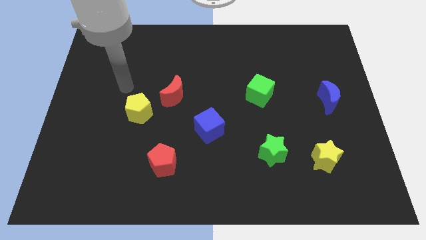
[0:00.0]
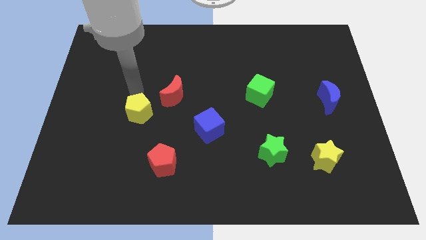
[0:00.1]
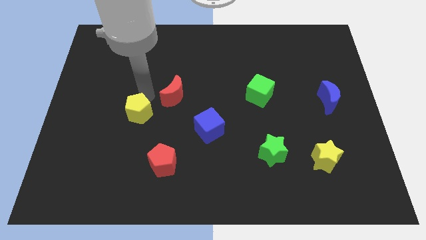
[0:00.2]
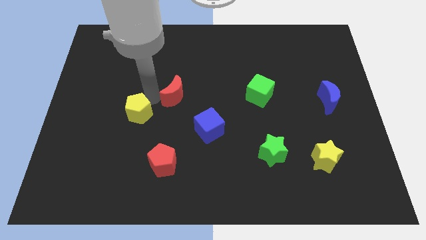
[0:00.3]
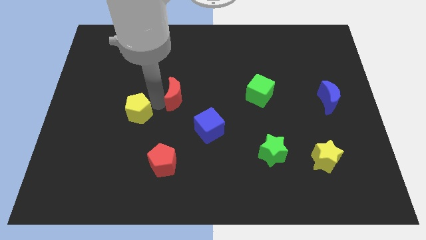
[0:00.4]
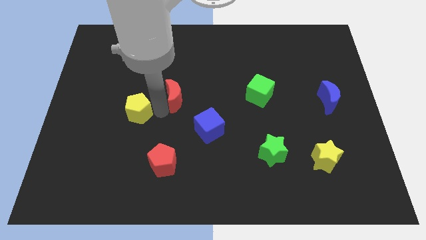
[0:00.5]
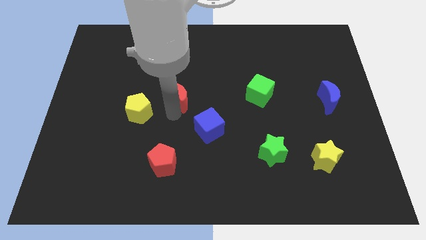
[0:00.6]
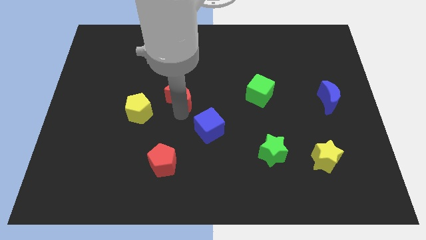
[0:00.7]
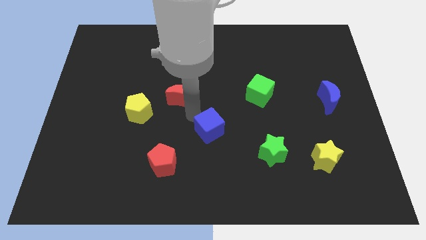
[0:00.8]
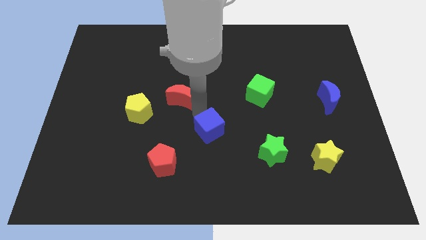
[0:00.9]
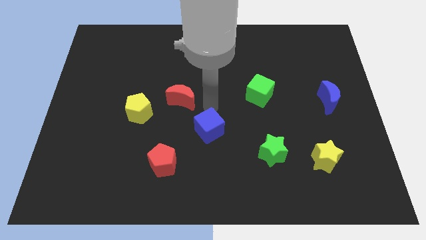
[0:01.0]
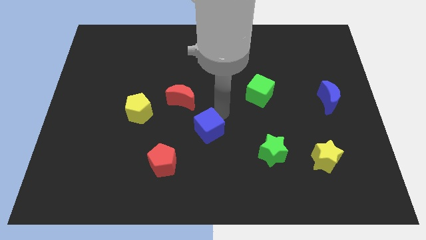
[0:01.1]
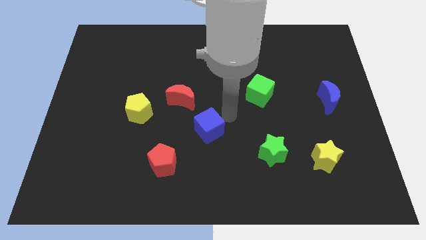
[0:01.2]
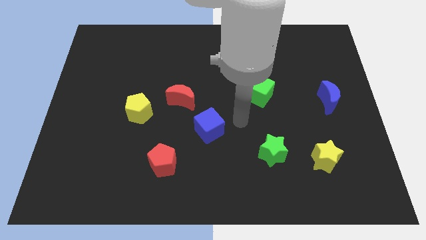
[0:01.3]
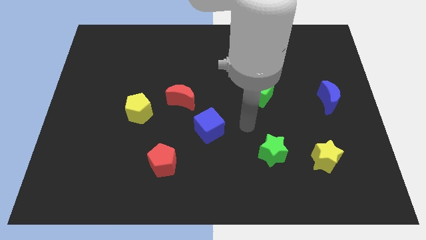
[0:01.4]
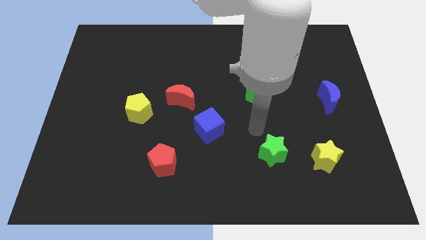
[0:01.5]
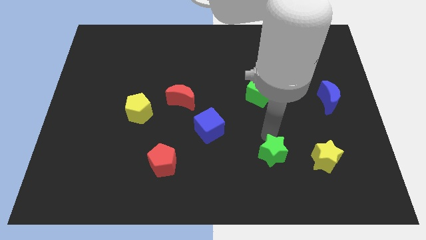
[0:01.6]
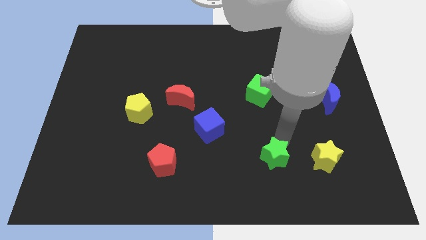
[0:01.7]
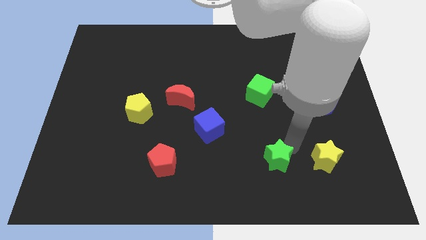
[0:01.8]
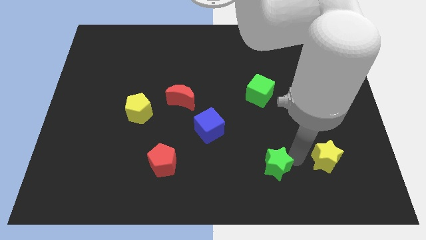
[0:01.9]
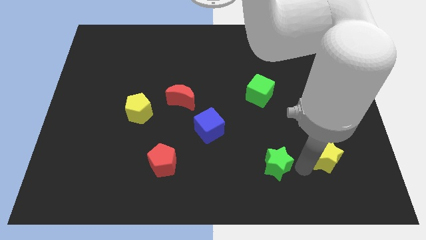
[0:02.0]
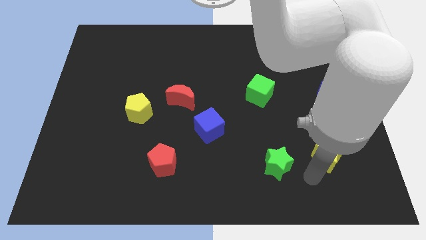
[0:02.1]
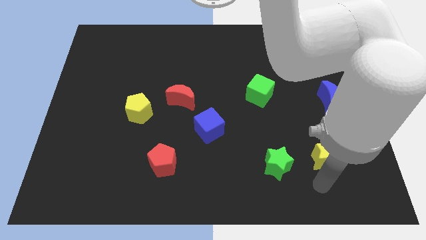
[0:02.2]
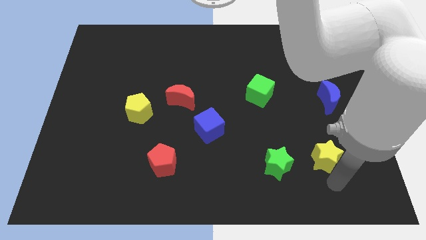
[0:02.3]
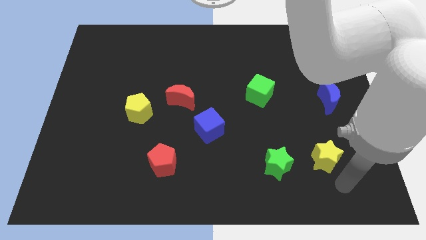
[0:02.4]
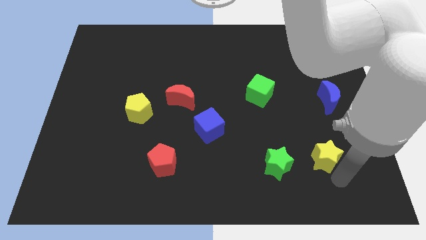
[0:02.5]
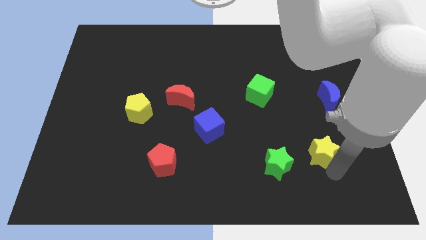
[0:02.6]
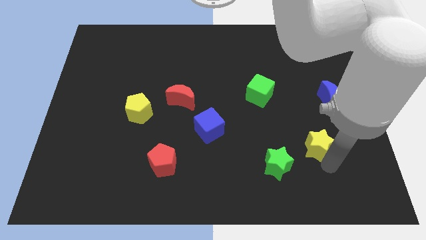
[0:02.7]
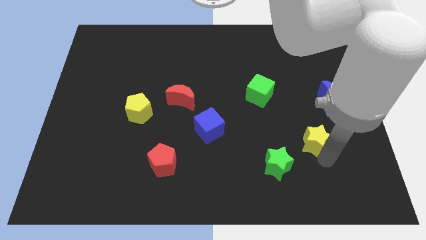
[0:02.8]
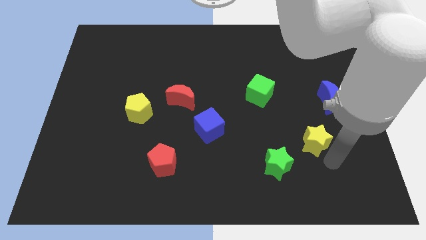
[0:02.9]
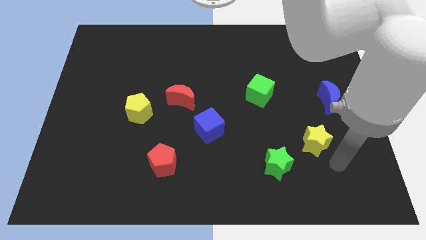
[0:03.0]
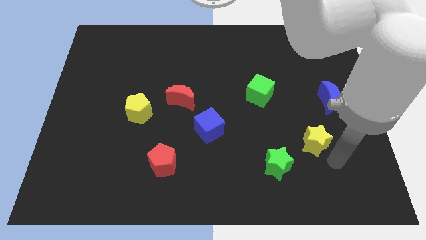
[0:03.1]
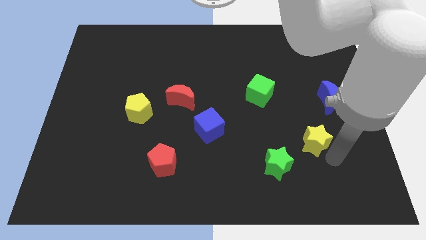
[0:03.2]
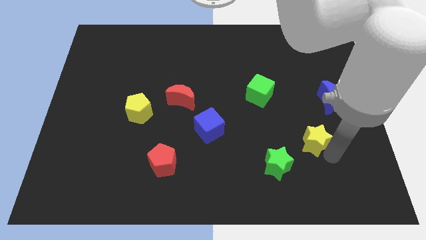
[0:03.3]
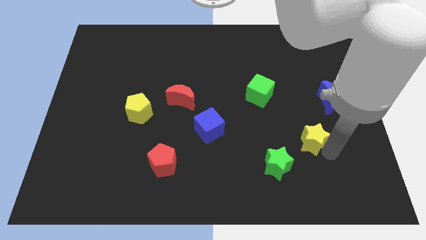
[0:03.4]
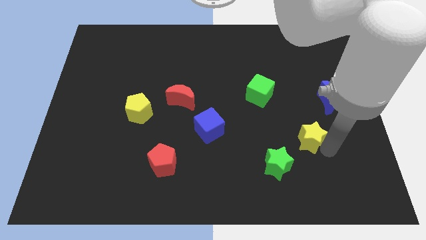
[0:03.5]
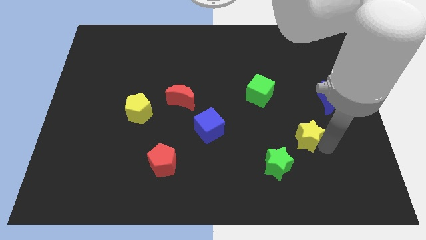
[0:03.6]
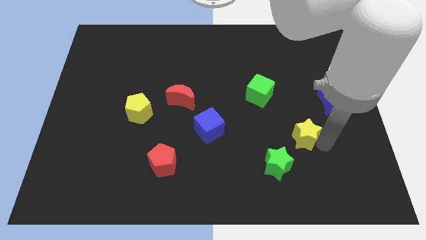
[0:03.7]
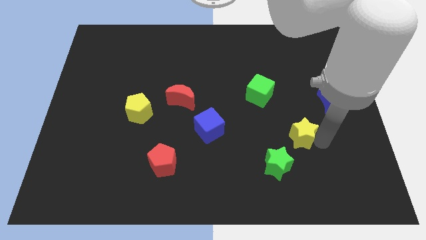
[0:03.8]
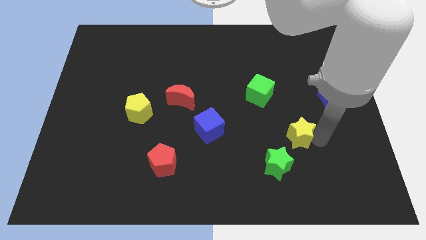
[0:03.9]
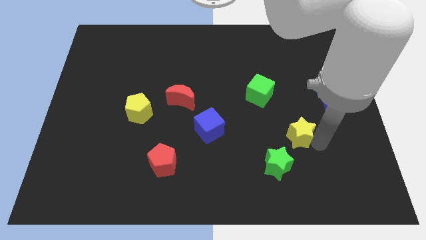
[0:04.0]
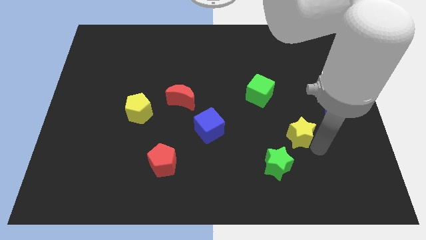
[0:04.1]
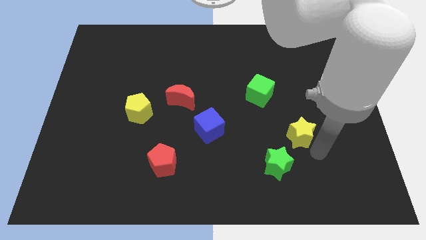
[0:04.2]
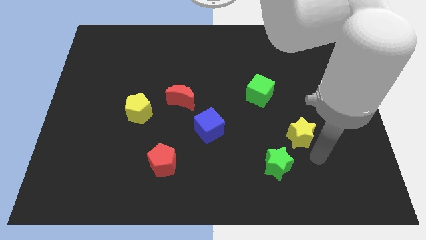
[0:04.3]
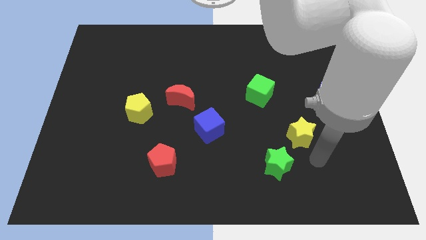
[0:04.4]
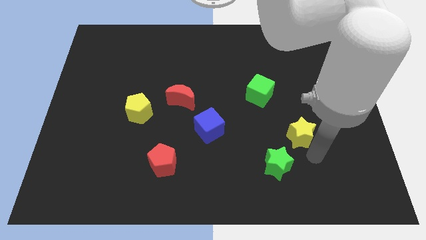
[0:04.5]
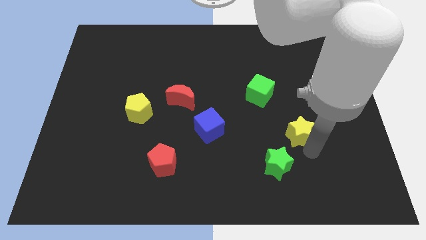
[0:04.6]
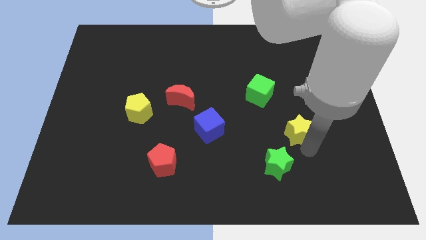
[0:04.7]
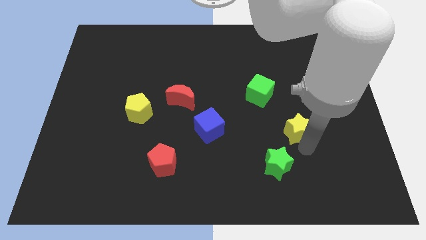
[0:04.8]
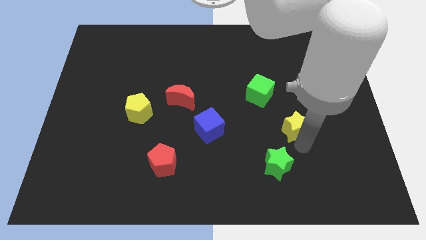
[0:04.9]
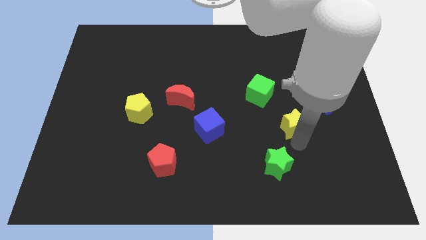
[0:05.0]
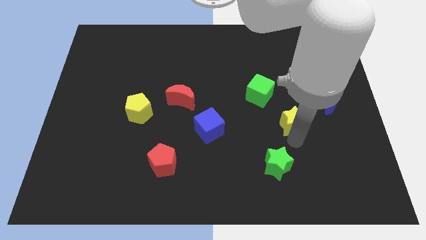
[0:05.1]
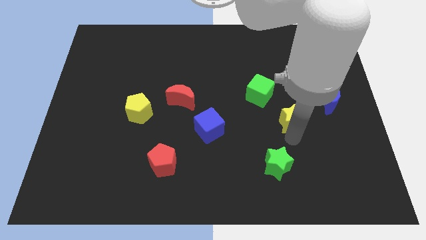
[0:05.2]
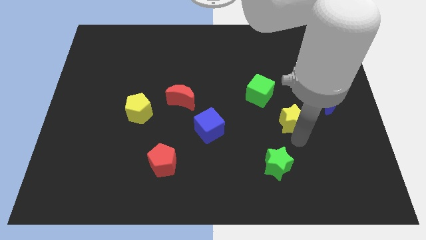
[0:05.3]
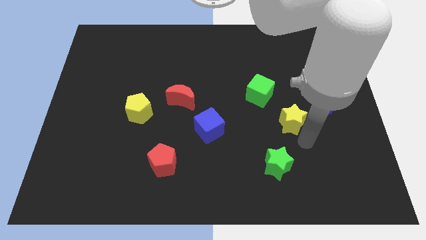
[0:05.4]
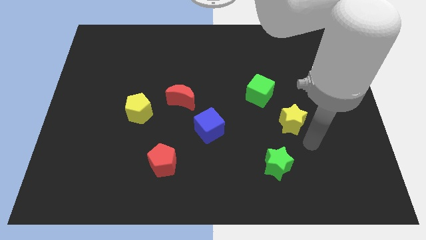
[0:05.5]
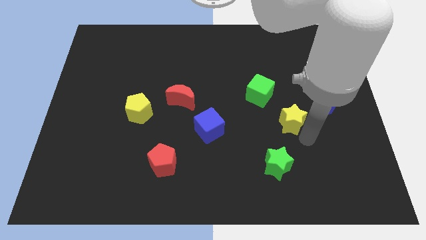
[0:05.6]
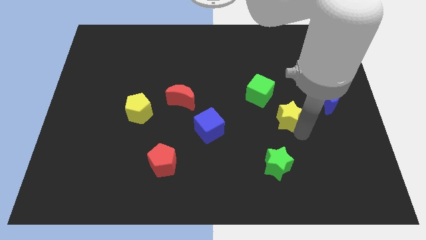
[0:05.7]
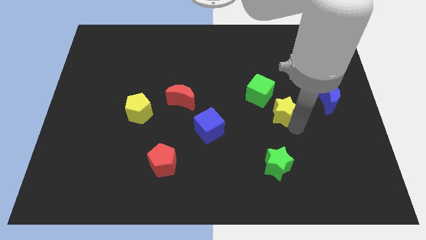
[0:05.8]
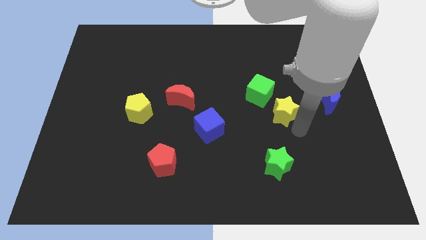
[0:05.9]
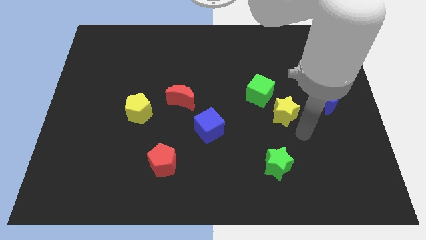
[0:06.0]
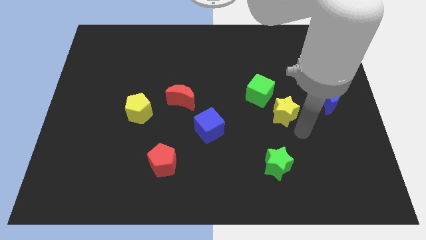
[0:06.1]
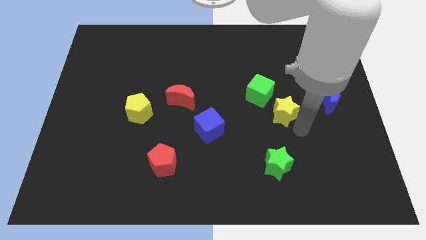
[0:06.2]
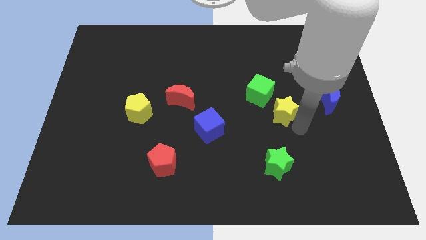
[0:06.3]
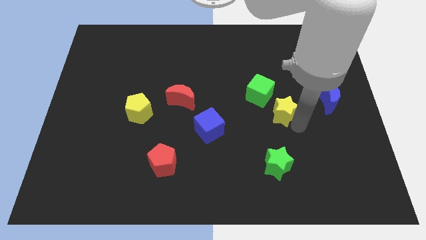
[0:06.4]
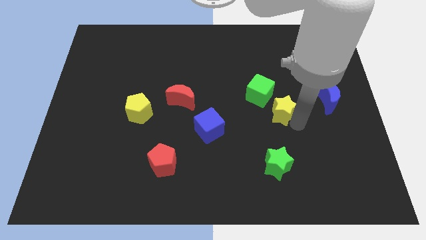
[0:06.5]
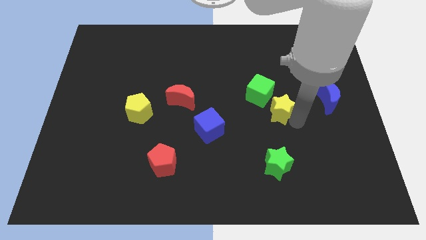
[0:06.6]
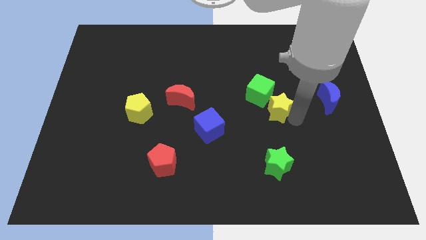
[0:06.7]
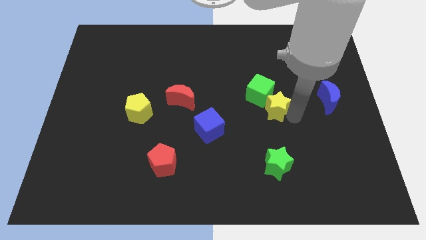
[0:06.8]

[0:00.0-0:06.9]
push the yellow star towards the green cube

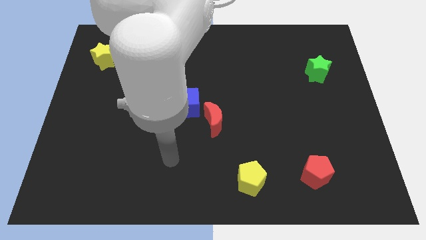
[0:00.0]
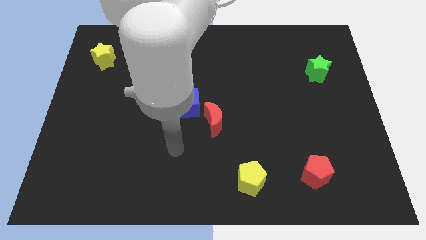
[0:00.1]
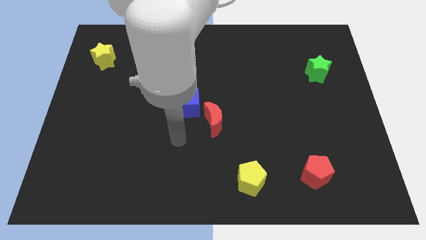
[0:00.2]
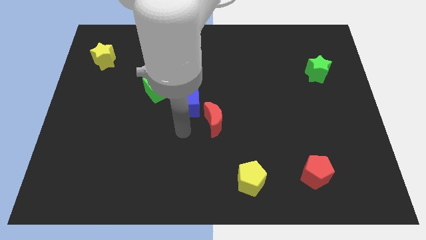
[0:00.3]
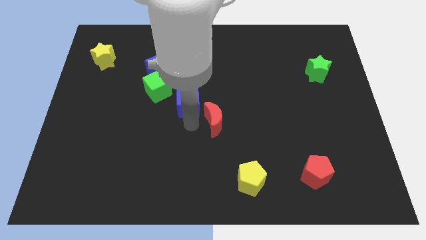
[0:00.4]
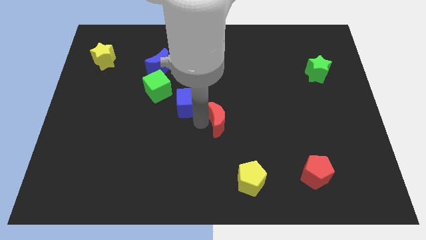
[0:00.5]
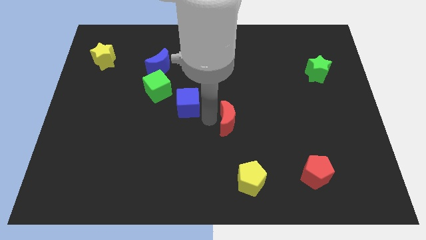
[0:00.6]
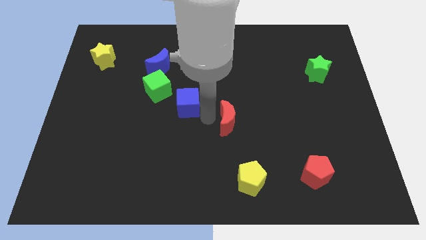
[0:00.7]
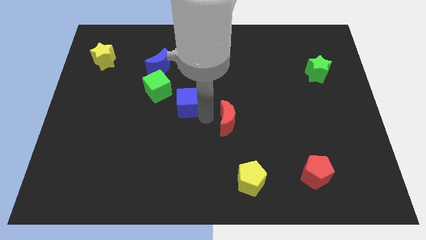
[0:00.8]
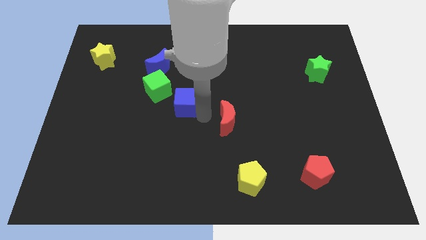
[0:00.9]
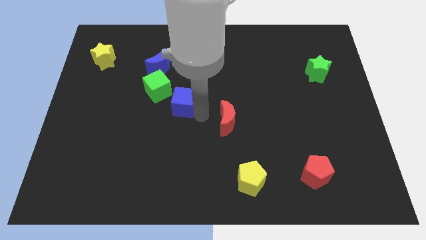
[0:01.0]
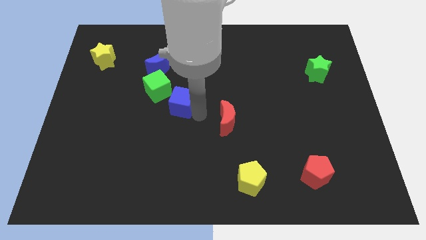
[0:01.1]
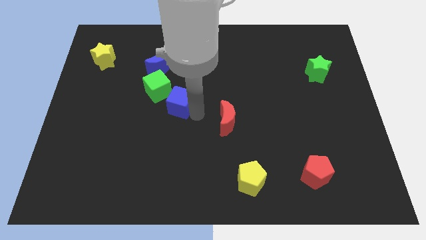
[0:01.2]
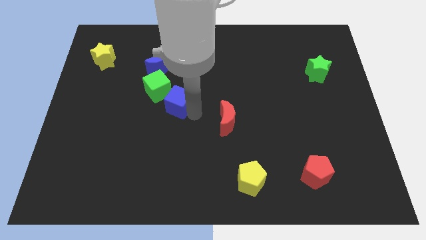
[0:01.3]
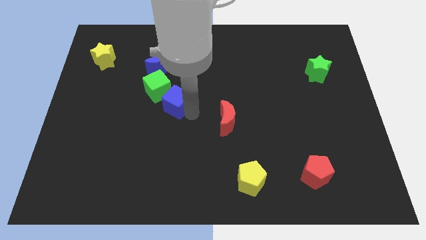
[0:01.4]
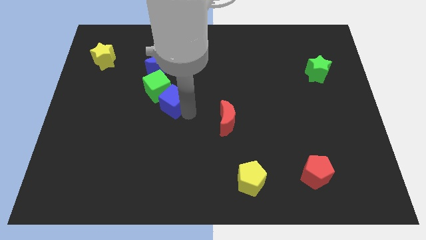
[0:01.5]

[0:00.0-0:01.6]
move the blue cube towards the green cube
